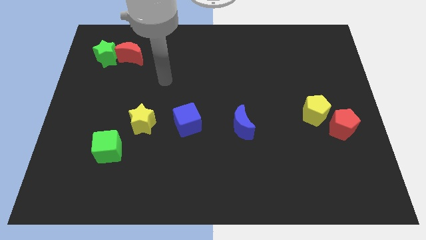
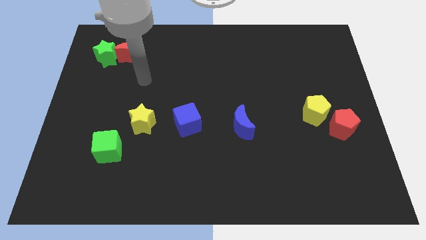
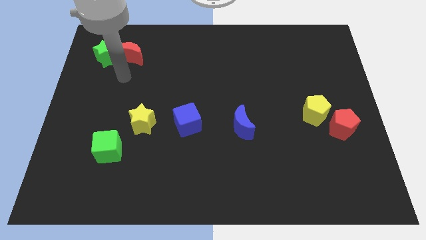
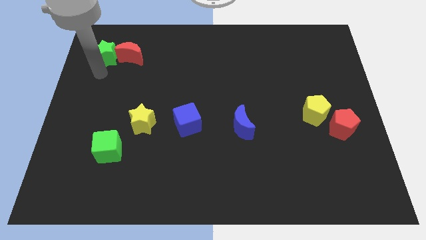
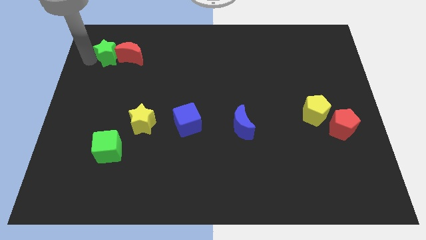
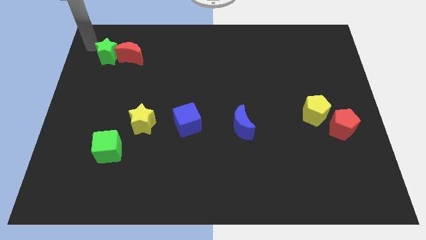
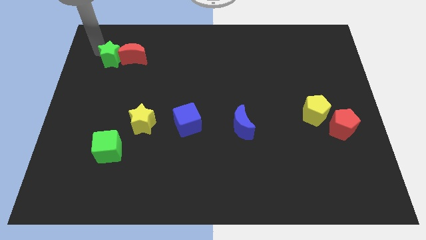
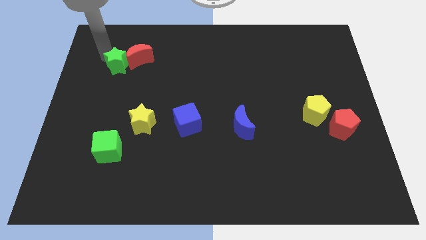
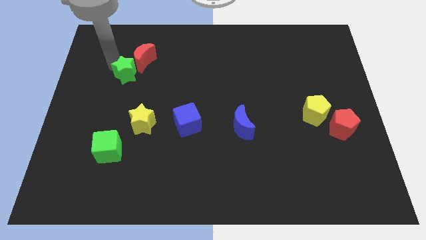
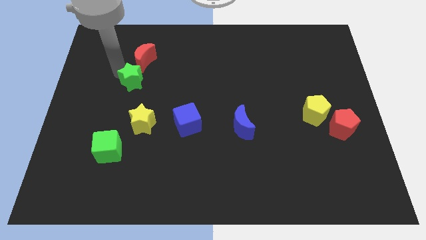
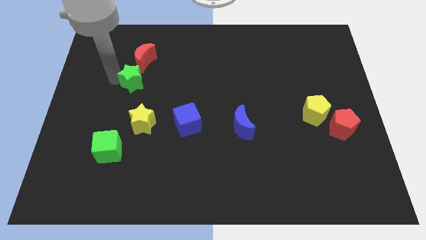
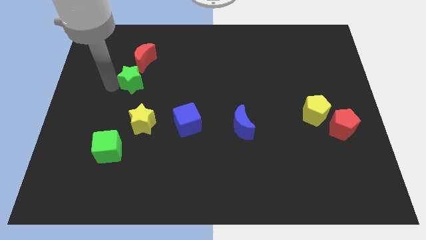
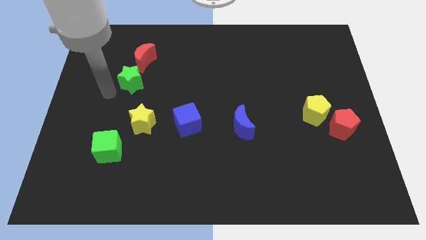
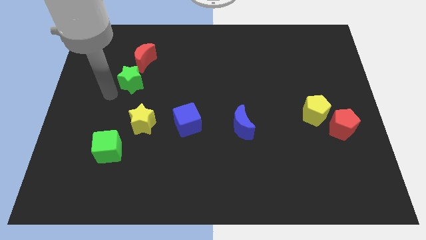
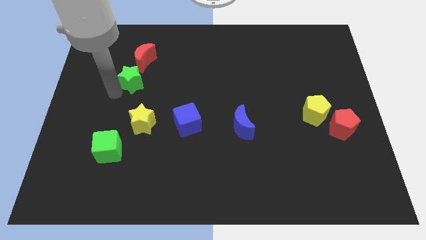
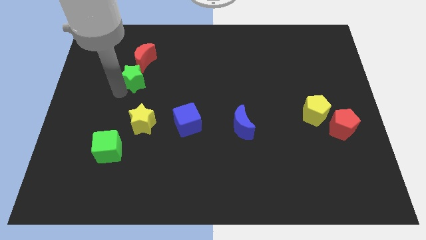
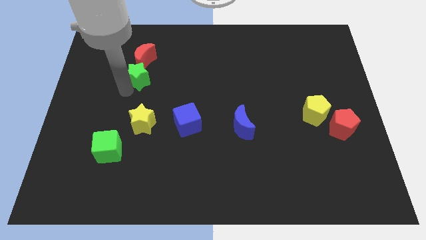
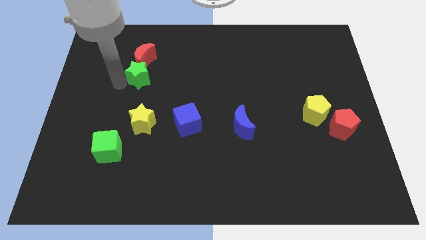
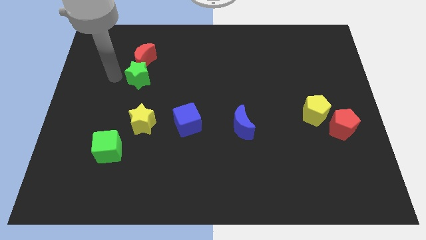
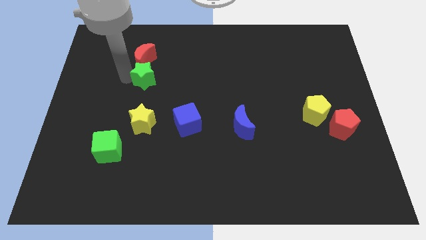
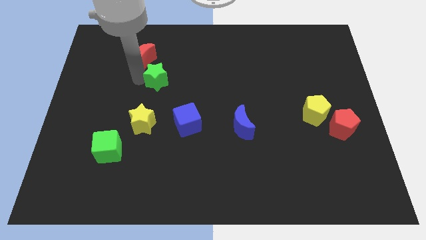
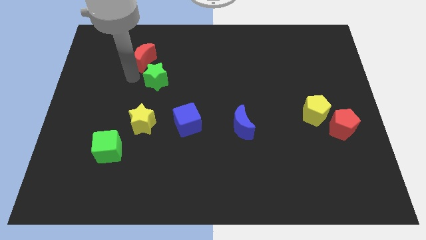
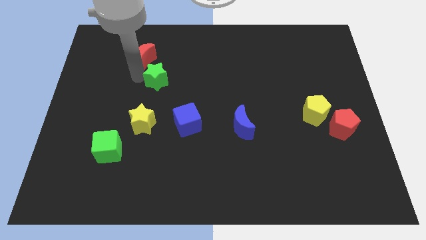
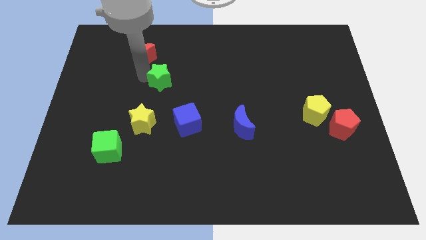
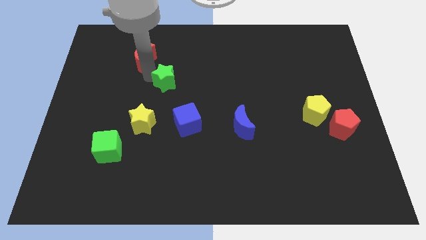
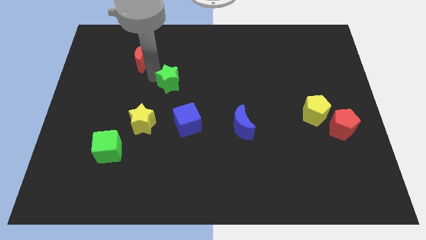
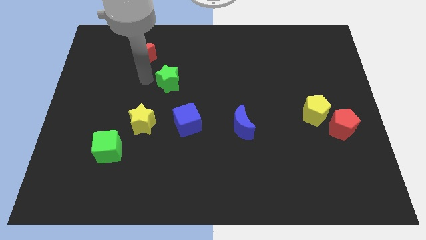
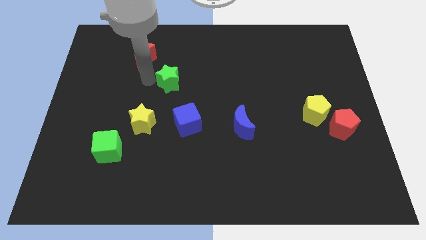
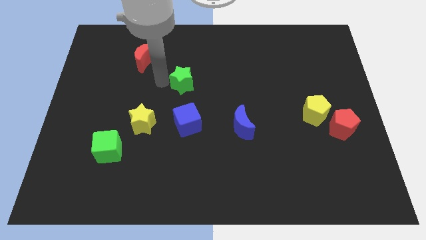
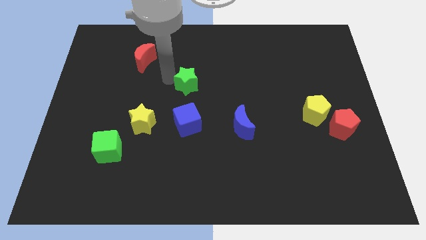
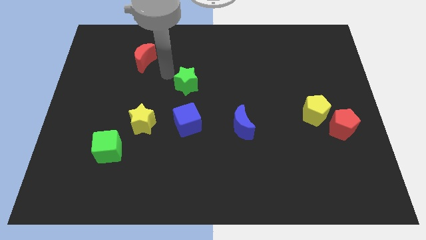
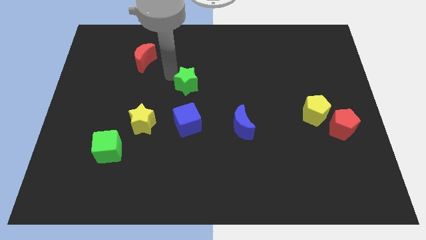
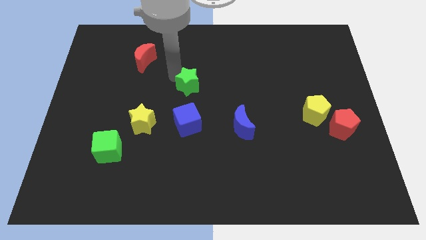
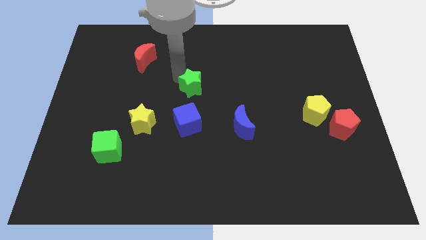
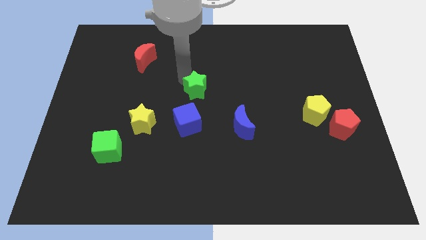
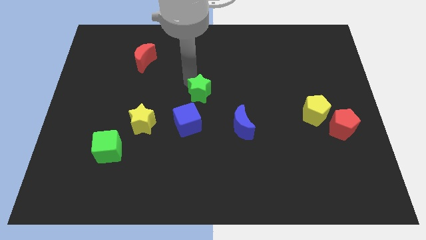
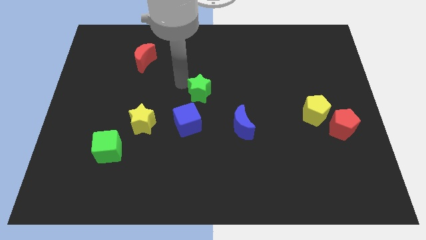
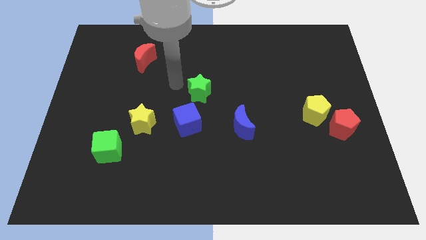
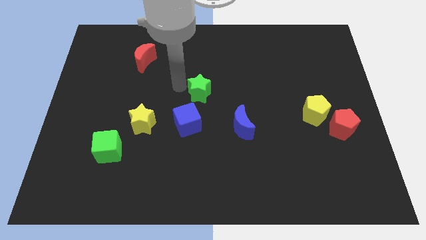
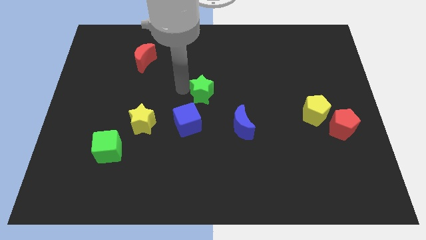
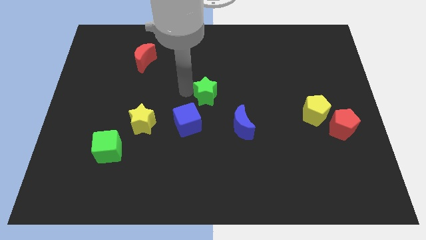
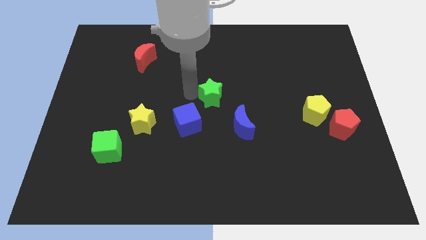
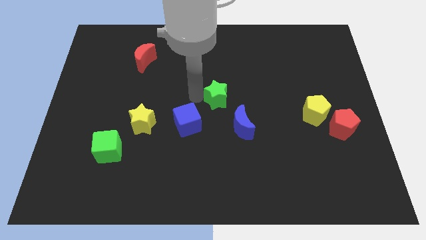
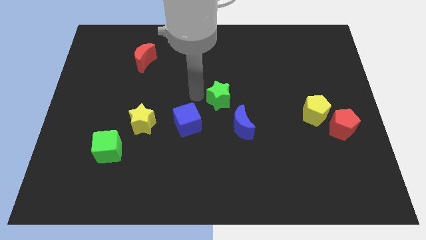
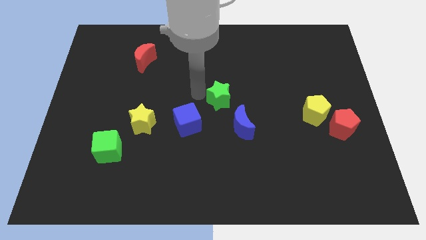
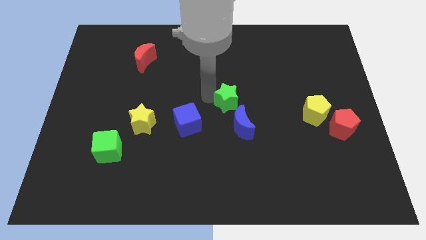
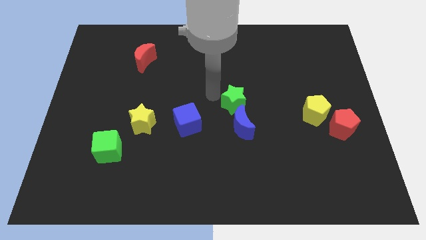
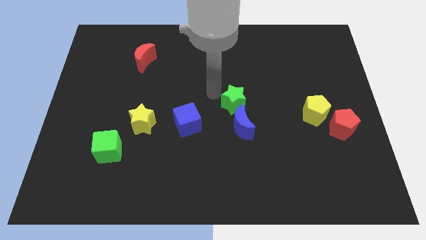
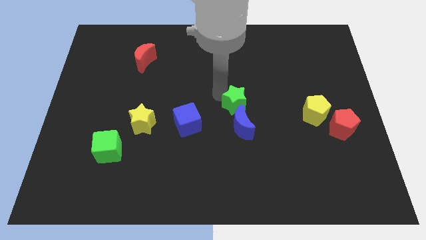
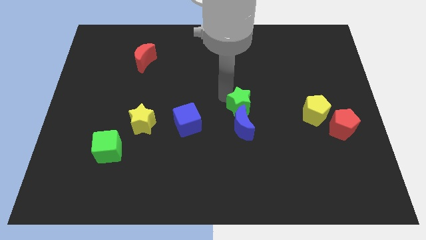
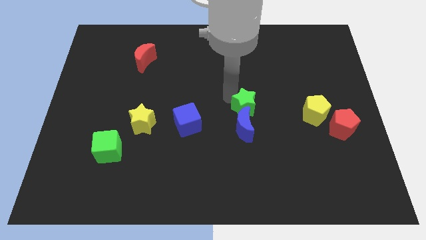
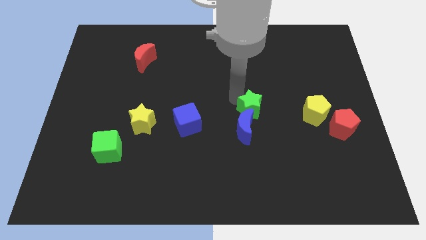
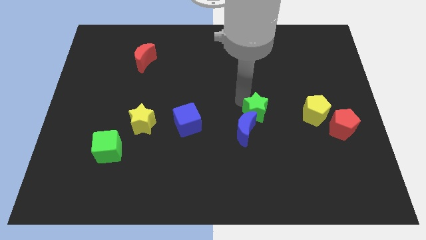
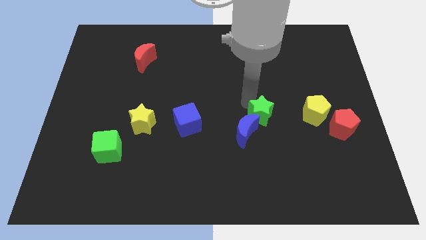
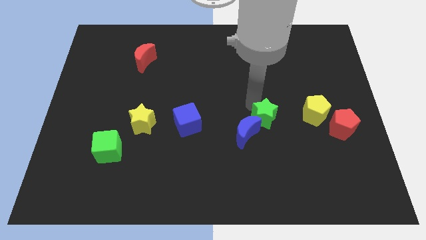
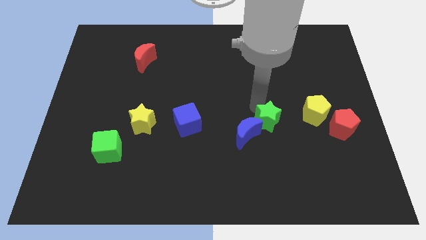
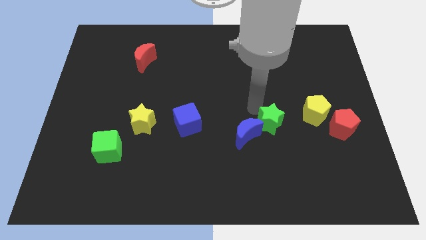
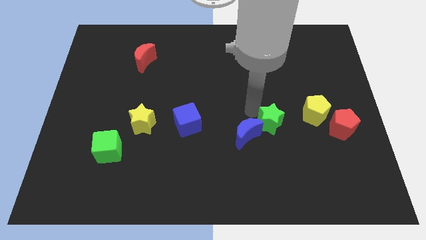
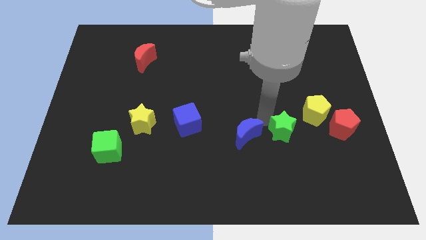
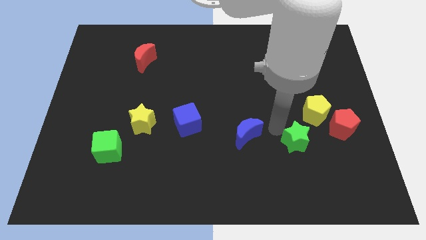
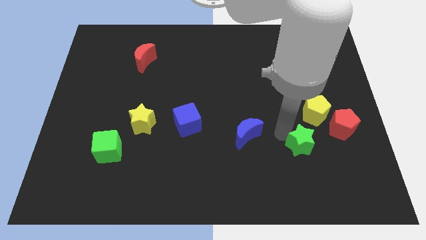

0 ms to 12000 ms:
put the green star to the bottom of the yellow pentagon
